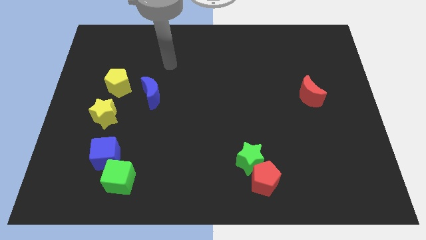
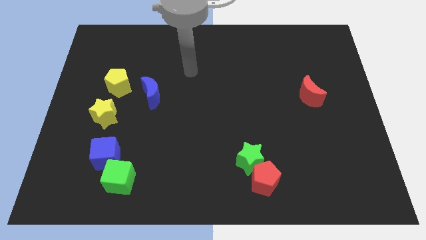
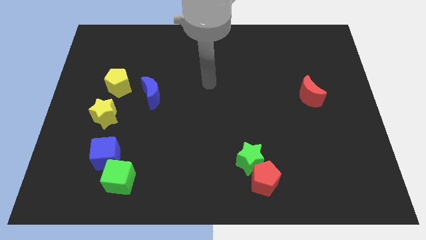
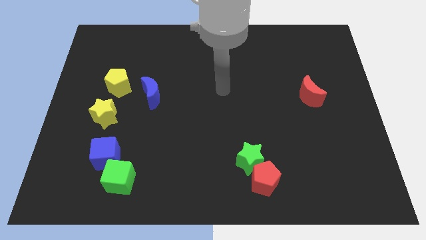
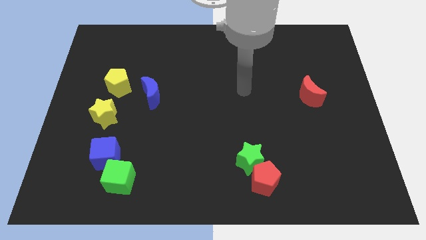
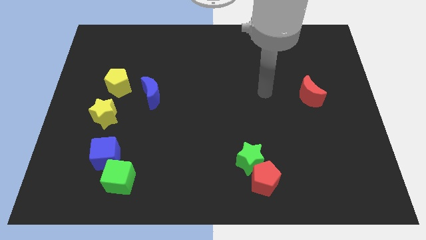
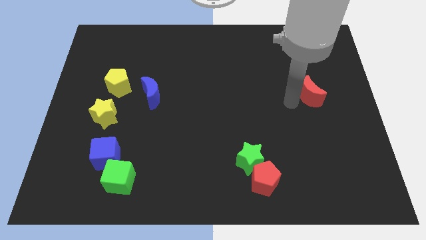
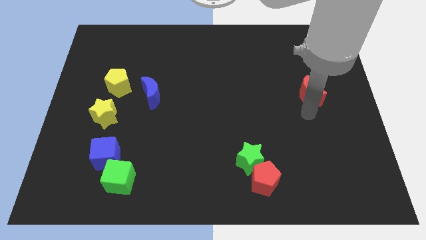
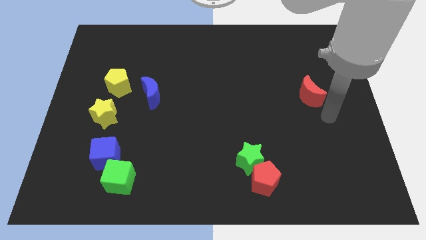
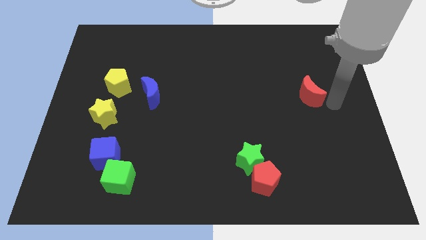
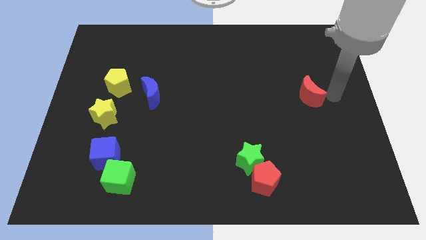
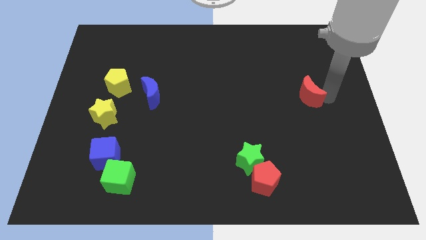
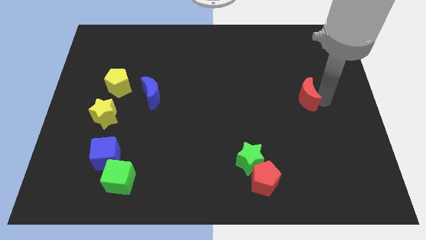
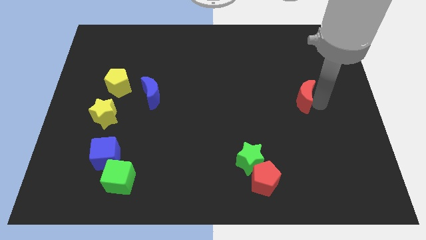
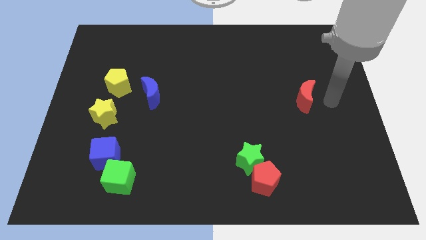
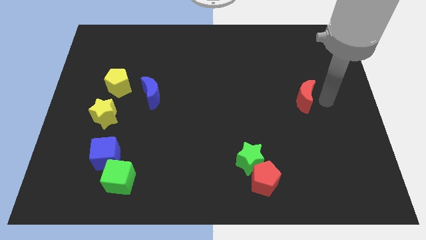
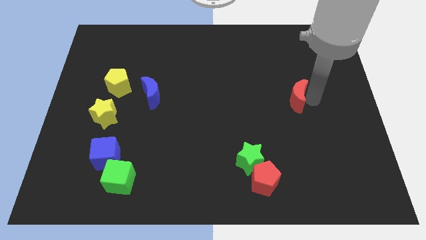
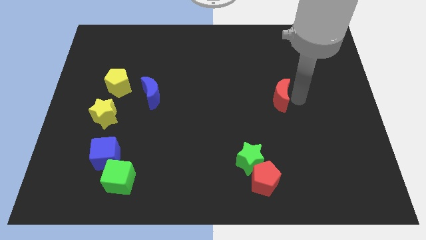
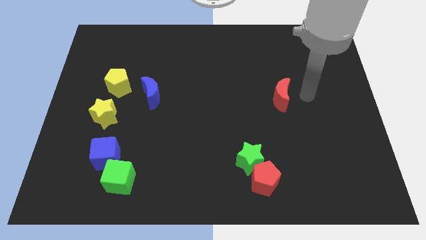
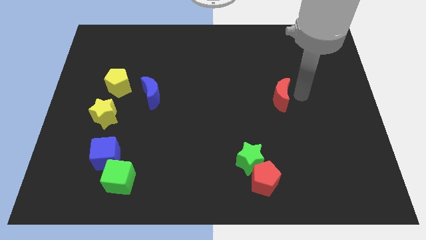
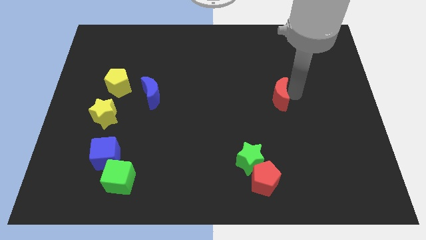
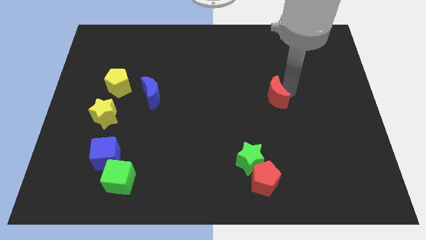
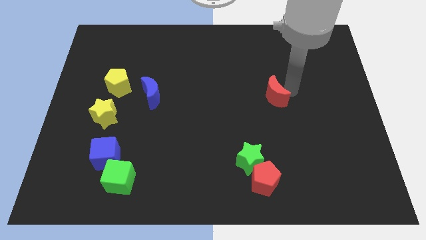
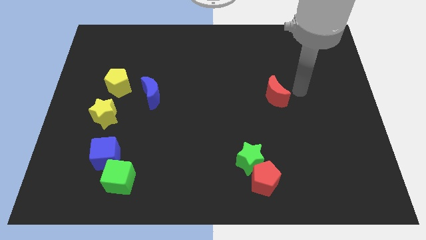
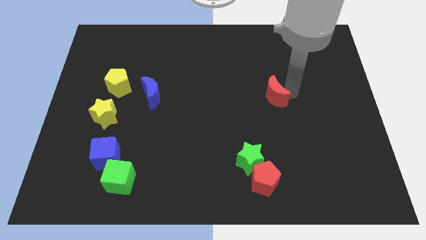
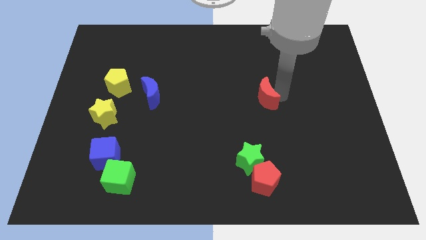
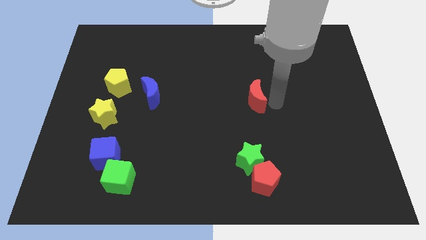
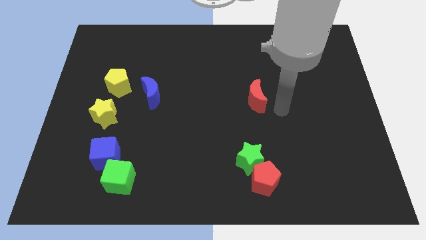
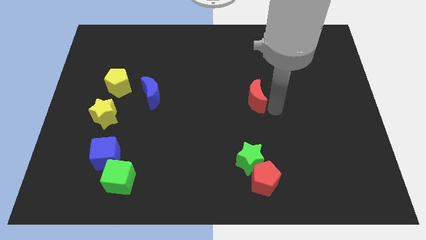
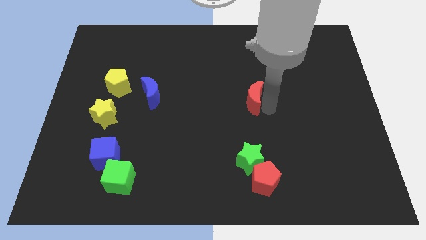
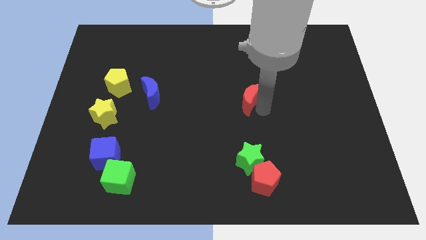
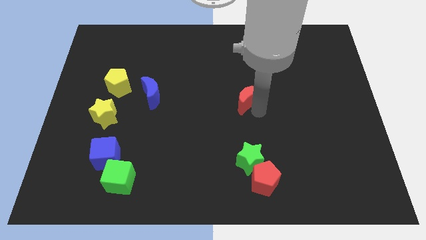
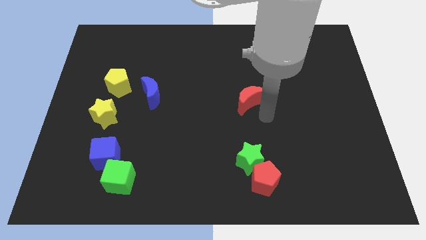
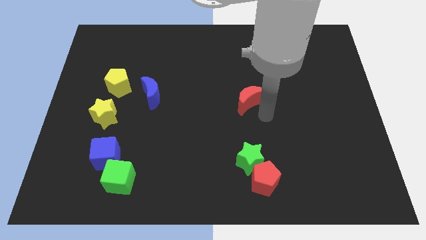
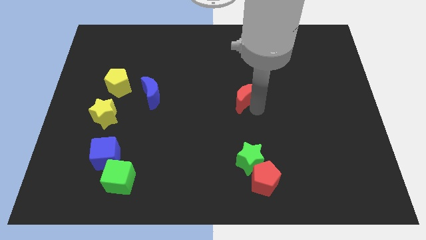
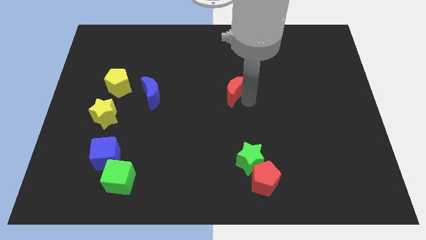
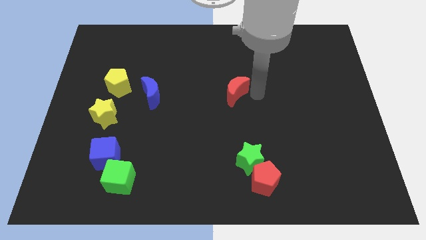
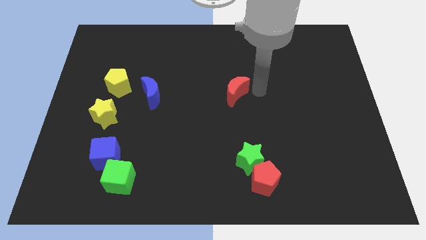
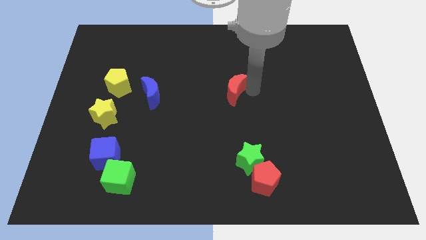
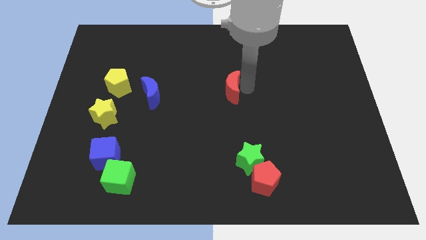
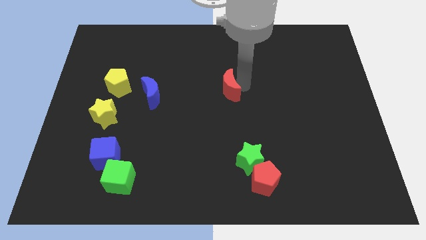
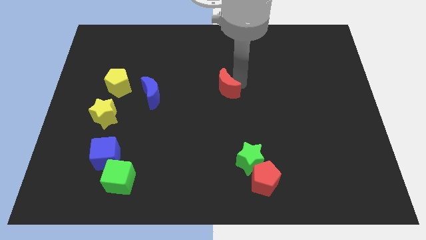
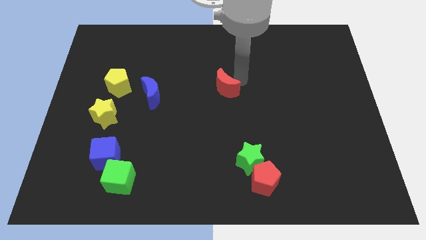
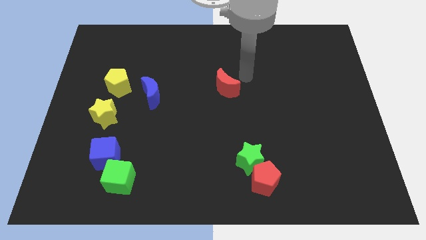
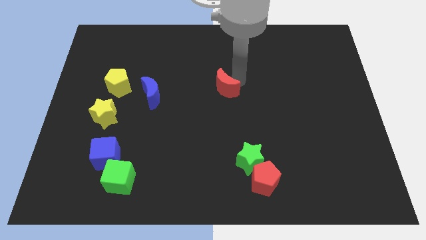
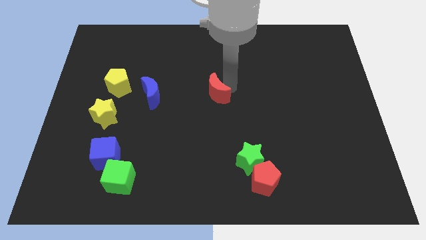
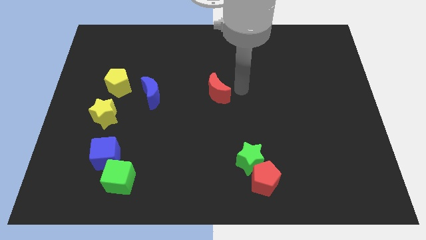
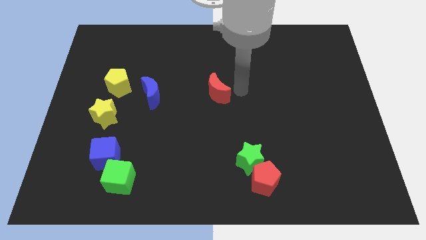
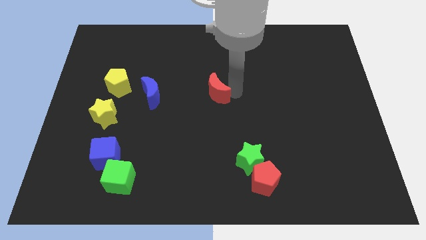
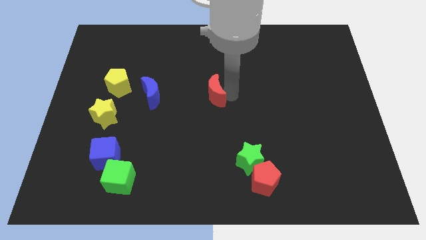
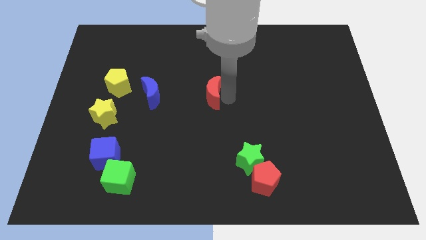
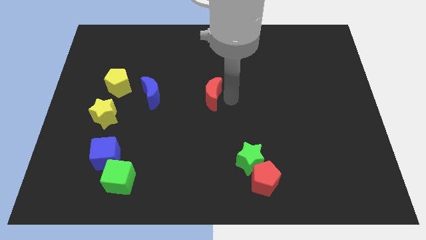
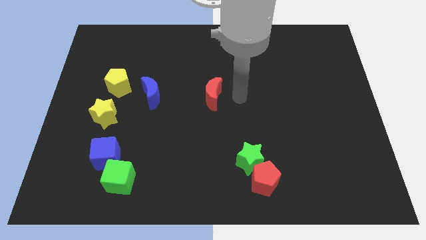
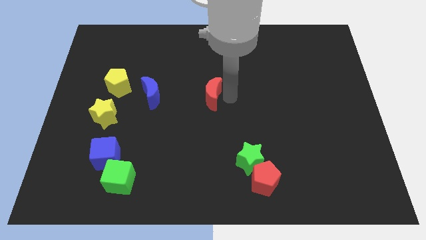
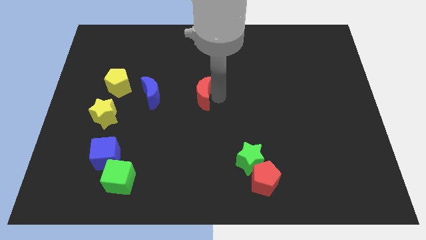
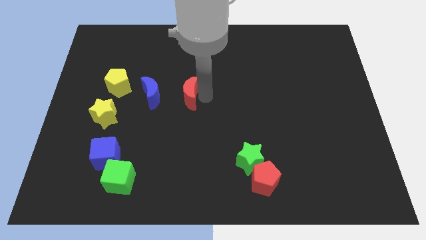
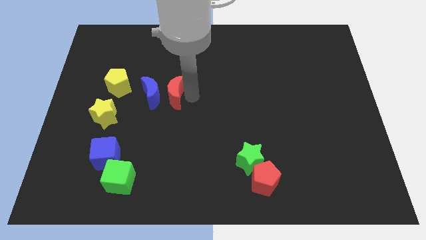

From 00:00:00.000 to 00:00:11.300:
put the red moon to the blue moon
